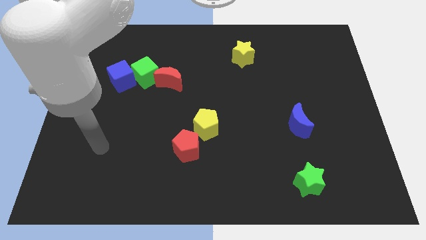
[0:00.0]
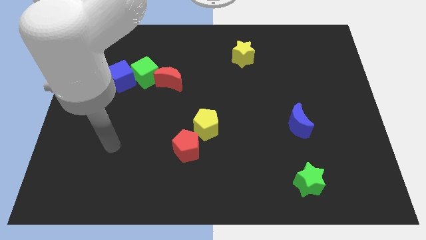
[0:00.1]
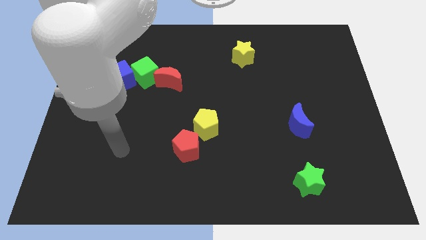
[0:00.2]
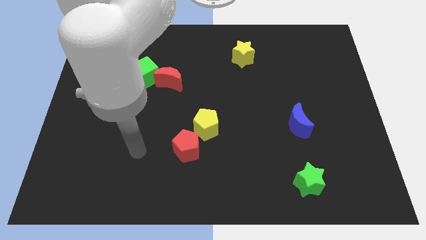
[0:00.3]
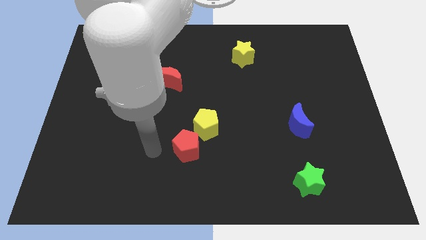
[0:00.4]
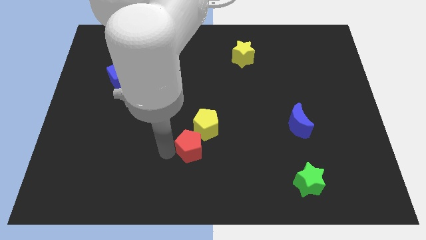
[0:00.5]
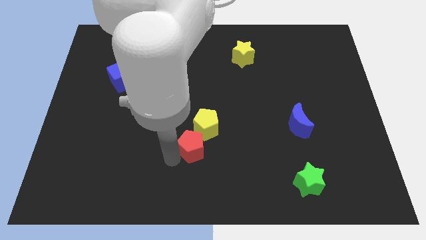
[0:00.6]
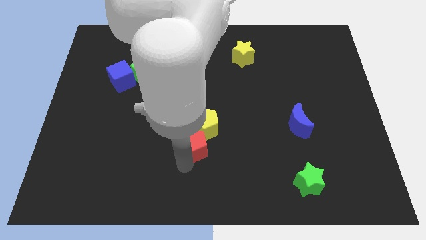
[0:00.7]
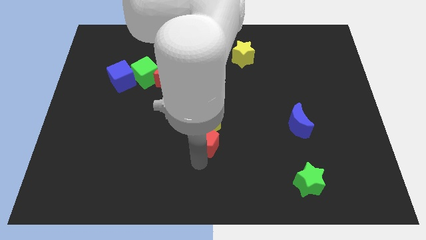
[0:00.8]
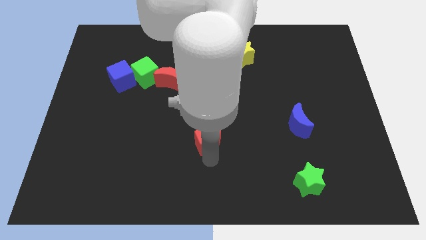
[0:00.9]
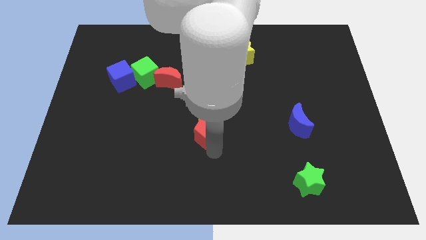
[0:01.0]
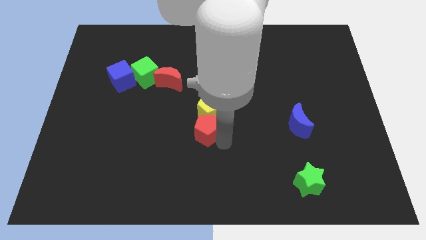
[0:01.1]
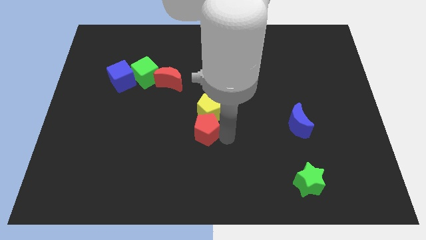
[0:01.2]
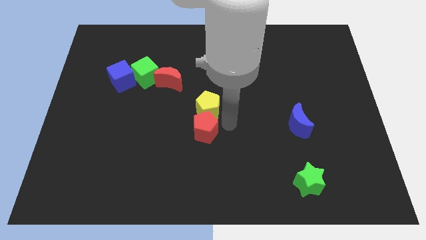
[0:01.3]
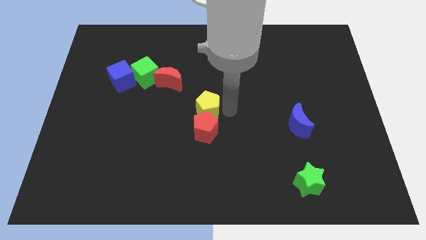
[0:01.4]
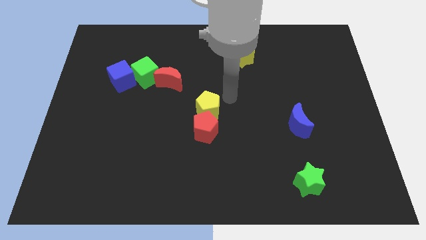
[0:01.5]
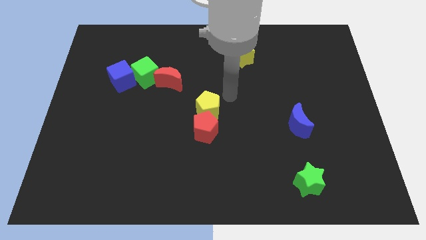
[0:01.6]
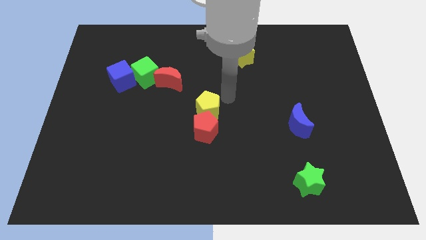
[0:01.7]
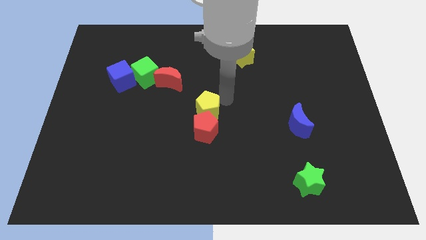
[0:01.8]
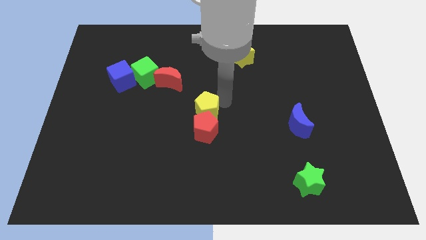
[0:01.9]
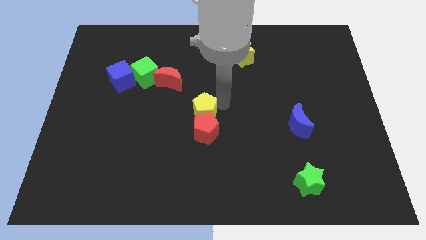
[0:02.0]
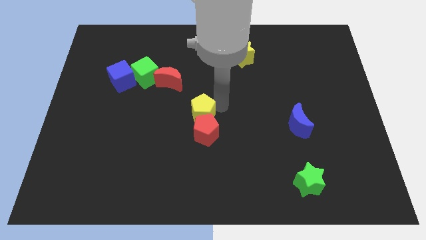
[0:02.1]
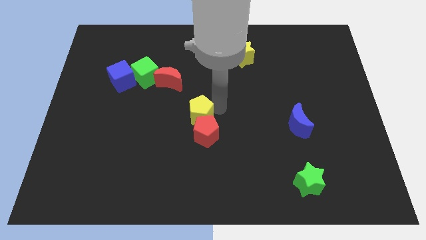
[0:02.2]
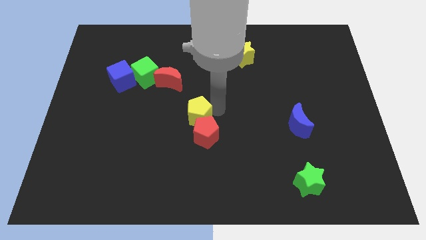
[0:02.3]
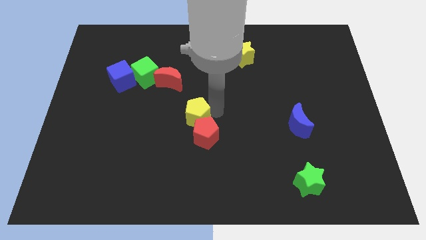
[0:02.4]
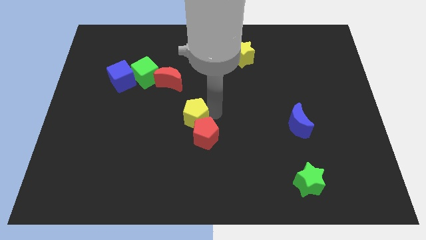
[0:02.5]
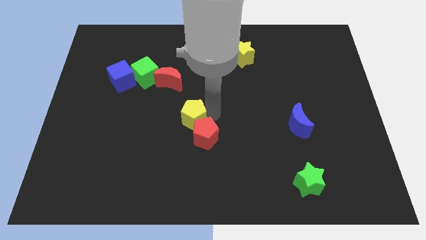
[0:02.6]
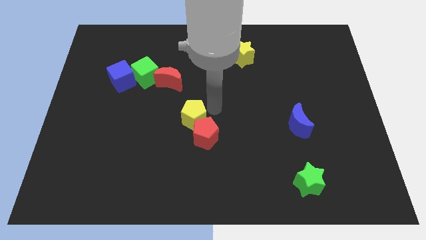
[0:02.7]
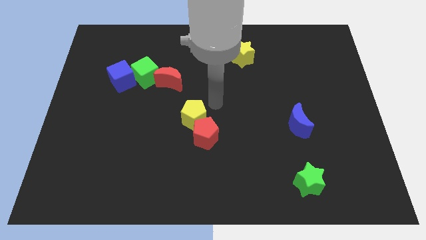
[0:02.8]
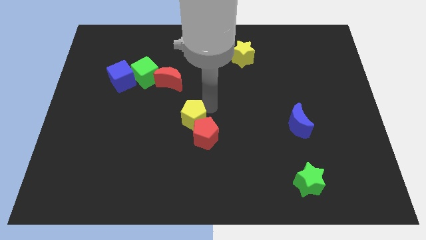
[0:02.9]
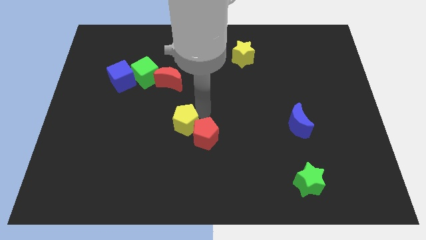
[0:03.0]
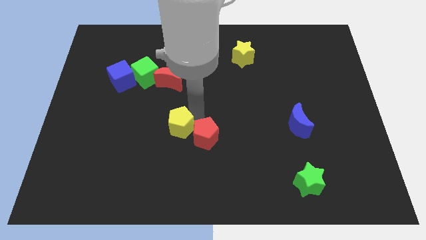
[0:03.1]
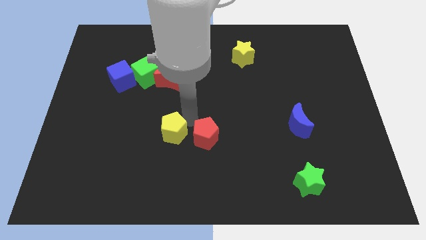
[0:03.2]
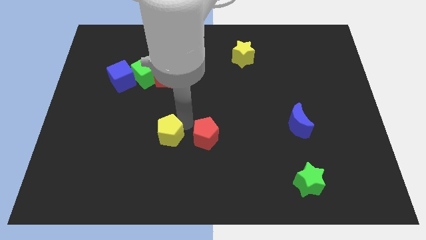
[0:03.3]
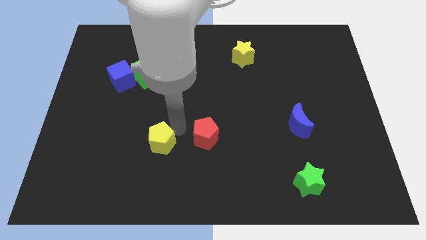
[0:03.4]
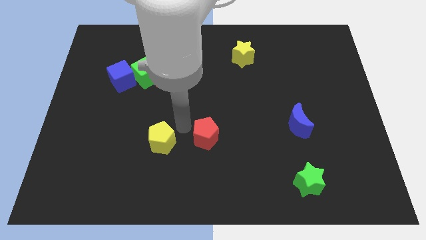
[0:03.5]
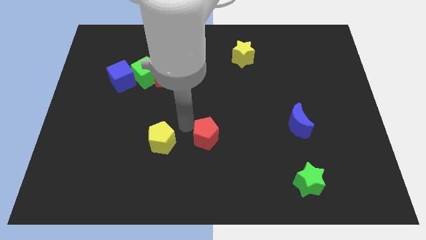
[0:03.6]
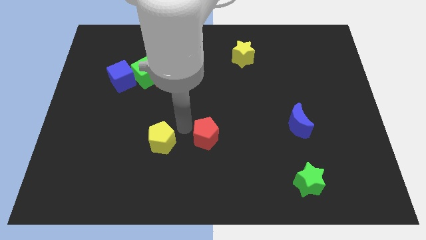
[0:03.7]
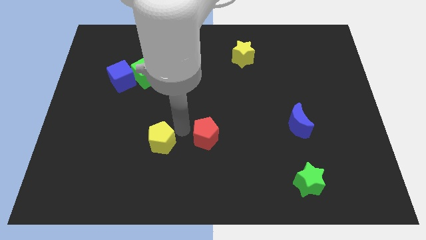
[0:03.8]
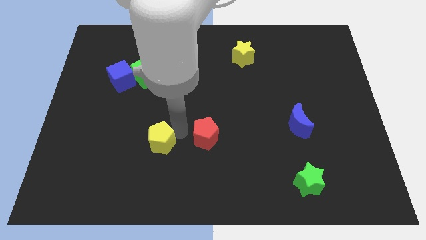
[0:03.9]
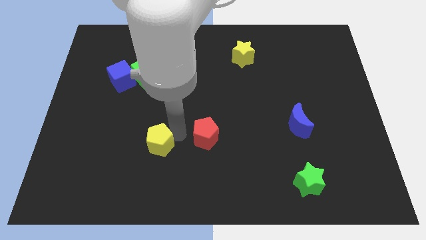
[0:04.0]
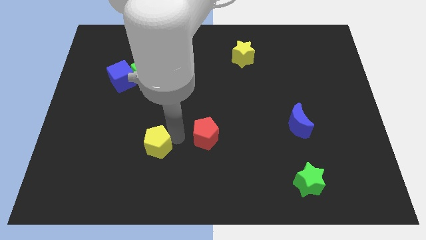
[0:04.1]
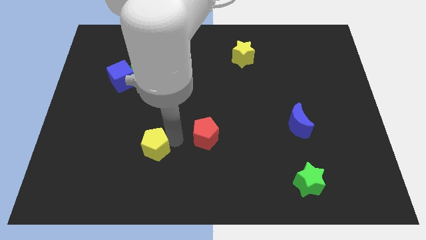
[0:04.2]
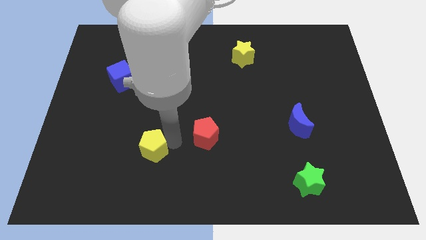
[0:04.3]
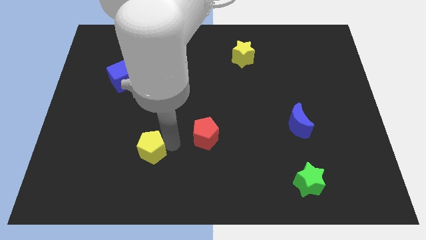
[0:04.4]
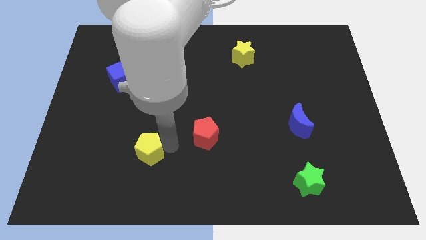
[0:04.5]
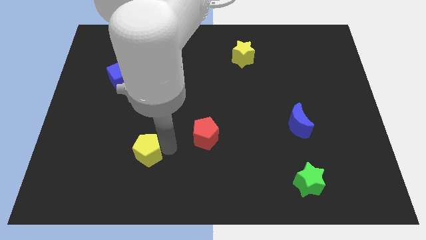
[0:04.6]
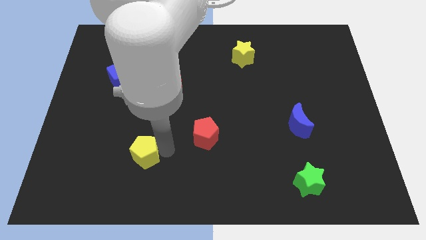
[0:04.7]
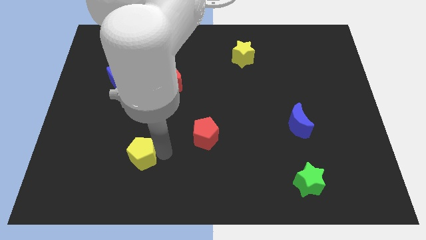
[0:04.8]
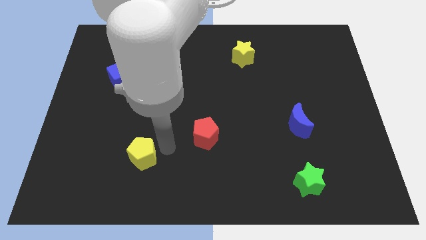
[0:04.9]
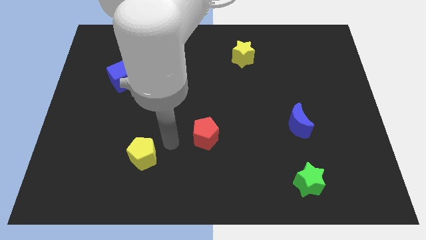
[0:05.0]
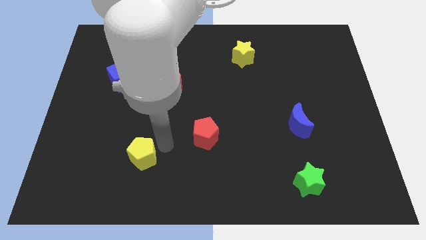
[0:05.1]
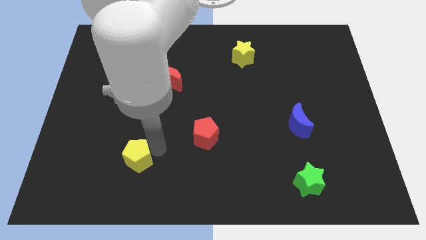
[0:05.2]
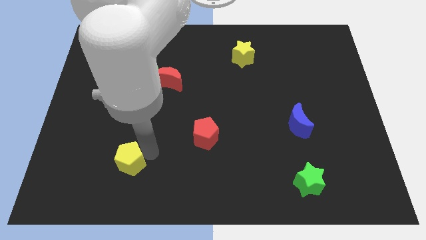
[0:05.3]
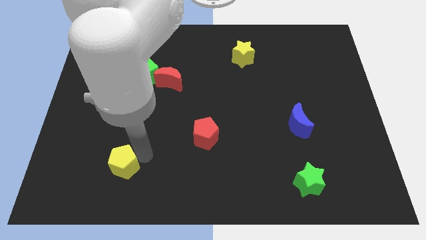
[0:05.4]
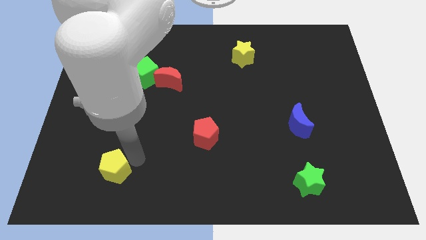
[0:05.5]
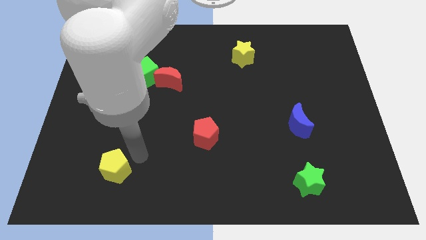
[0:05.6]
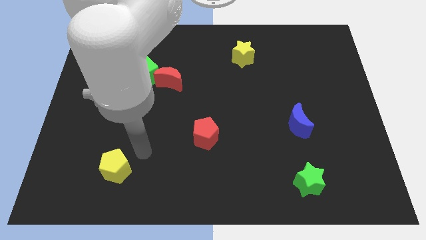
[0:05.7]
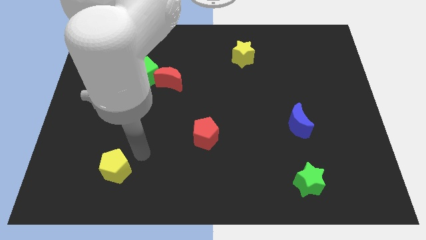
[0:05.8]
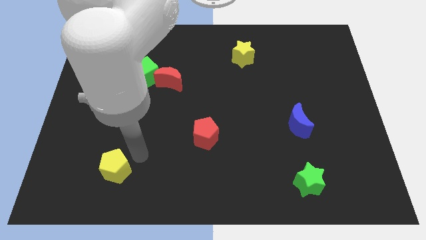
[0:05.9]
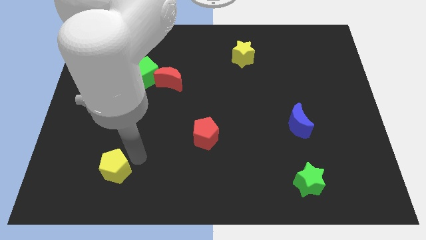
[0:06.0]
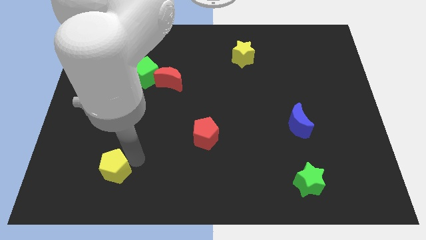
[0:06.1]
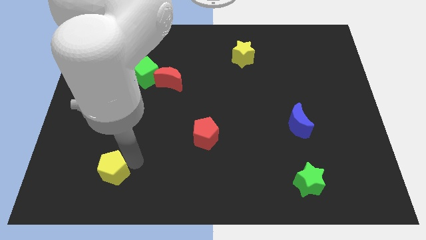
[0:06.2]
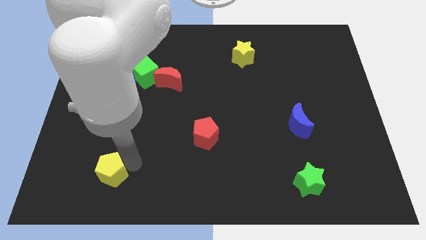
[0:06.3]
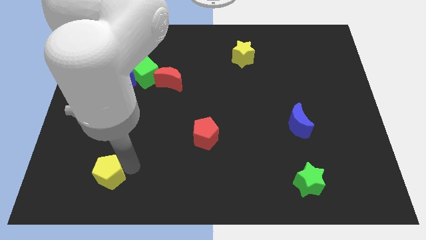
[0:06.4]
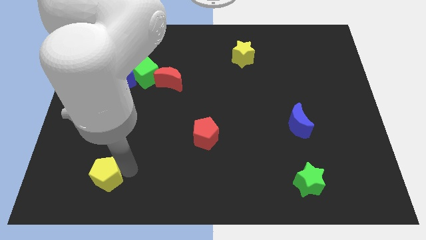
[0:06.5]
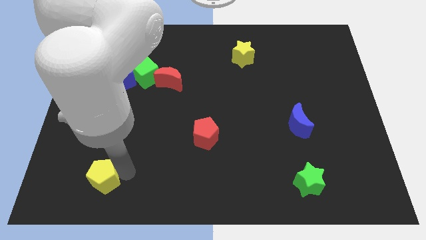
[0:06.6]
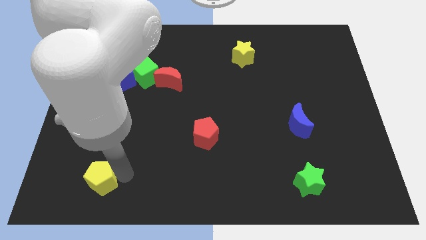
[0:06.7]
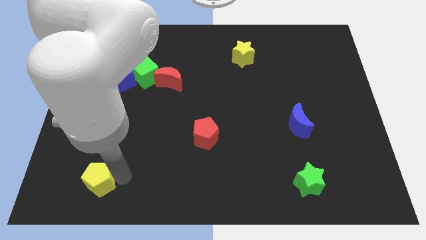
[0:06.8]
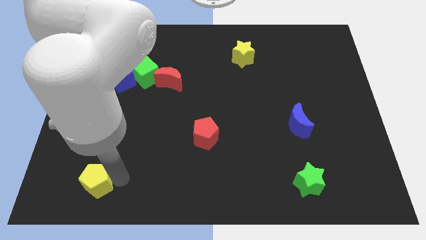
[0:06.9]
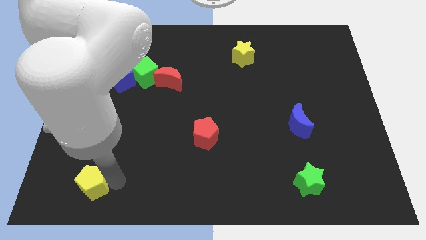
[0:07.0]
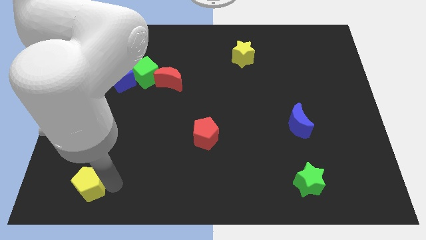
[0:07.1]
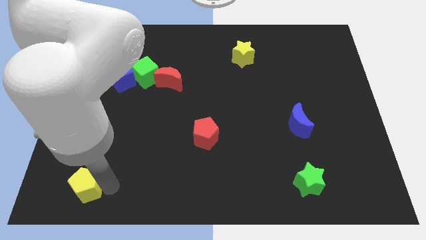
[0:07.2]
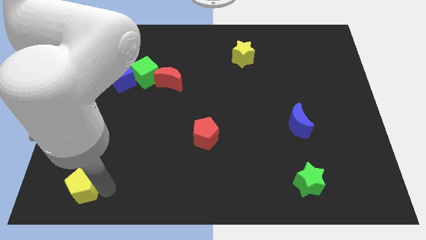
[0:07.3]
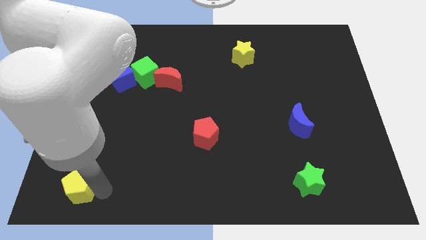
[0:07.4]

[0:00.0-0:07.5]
slide the yellow pentagon to the lower left corner
